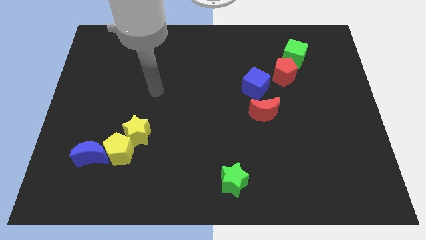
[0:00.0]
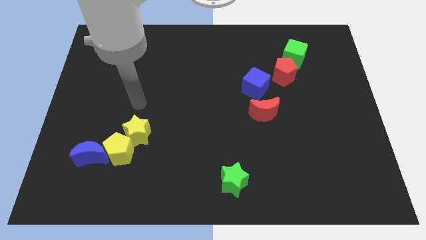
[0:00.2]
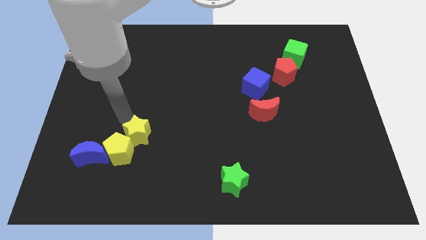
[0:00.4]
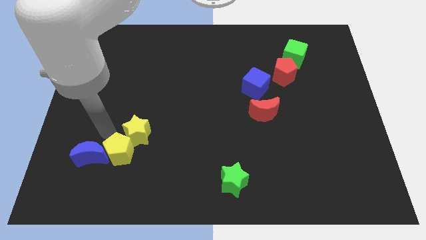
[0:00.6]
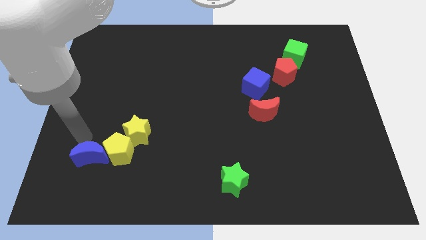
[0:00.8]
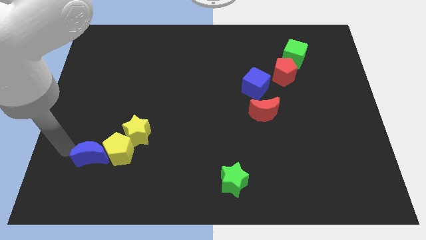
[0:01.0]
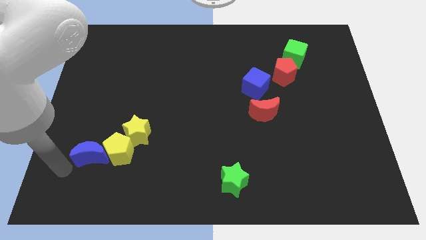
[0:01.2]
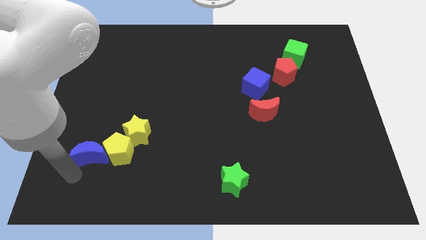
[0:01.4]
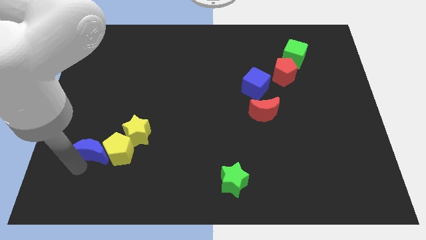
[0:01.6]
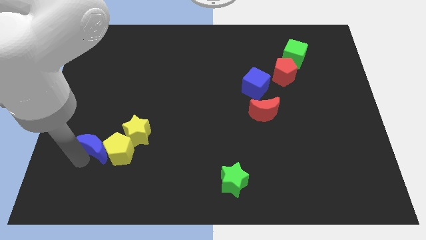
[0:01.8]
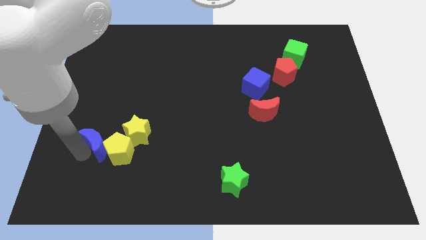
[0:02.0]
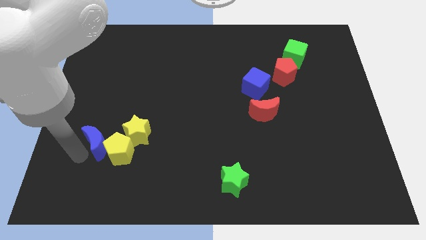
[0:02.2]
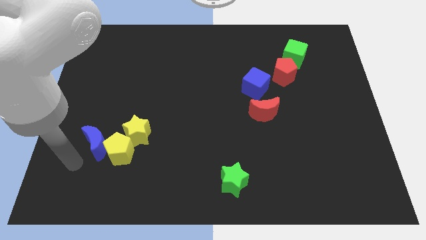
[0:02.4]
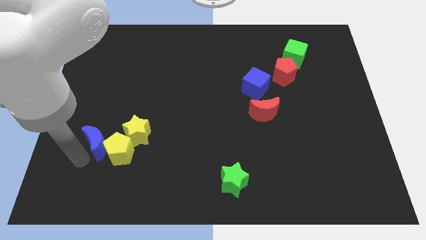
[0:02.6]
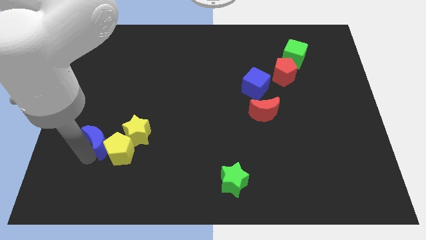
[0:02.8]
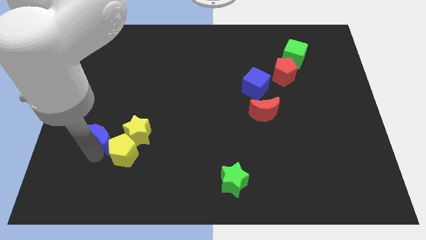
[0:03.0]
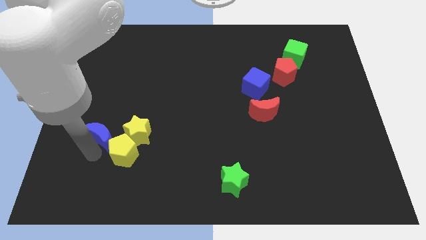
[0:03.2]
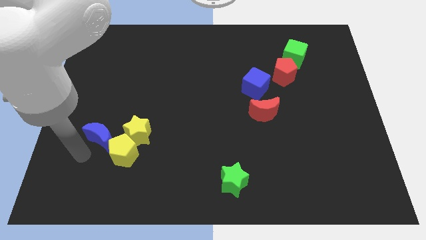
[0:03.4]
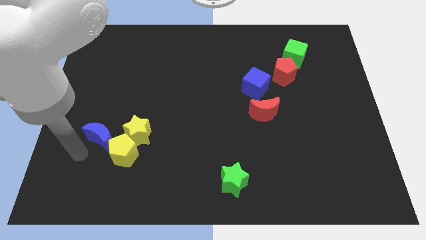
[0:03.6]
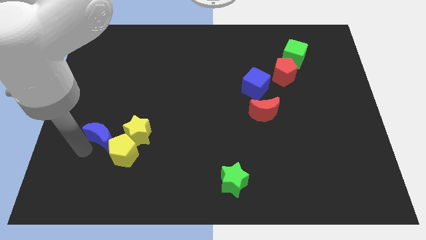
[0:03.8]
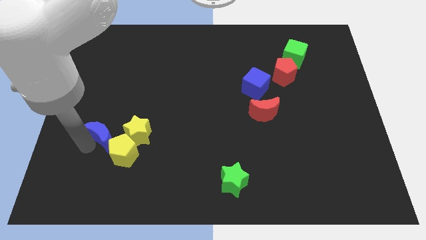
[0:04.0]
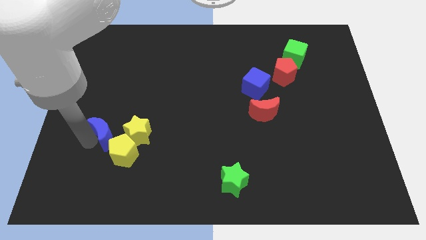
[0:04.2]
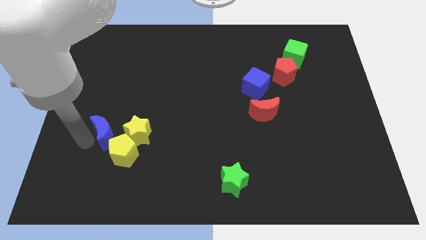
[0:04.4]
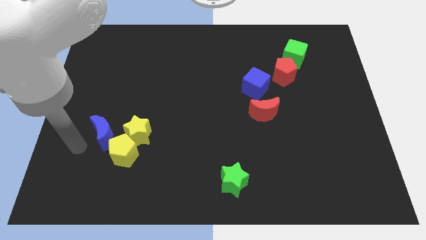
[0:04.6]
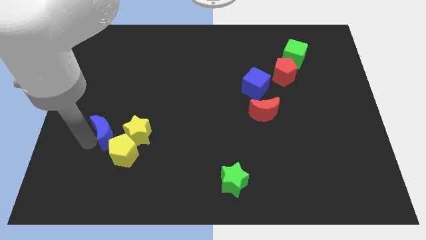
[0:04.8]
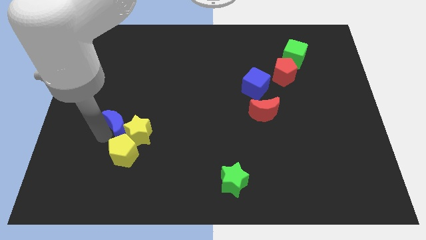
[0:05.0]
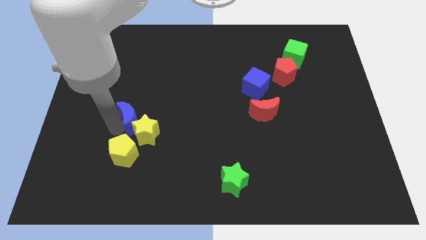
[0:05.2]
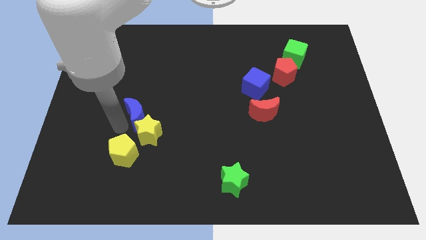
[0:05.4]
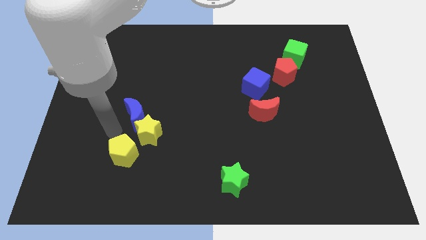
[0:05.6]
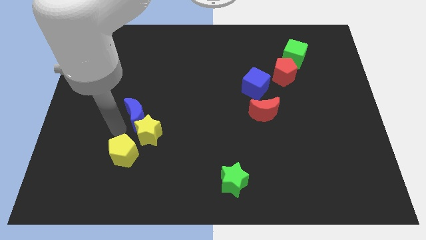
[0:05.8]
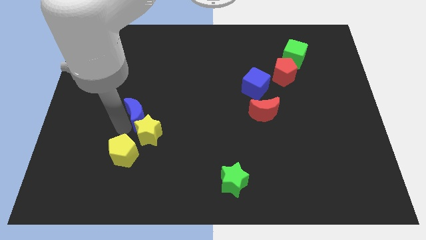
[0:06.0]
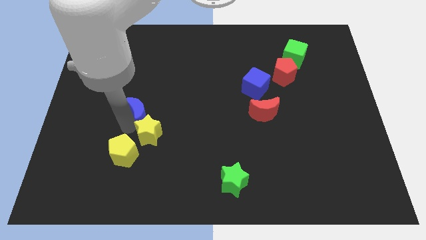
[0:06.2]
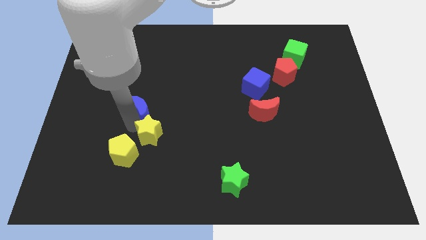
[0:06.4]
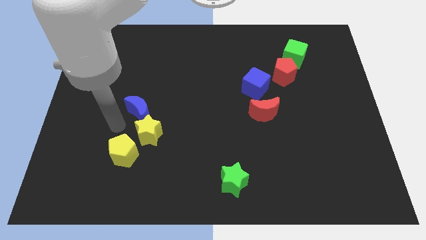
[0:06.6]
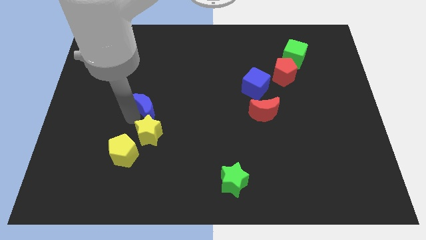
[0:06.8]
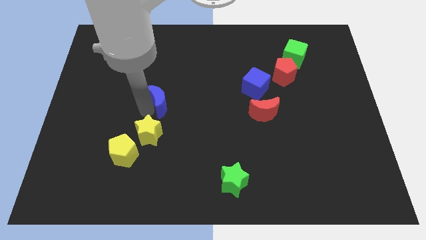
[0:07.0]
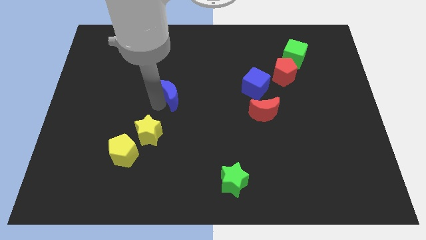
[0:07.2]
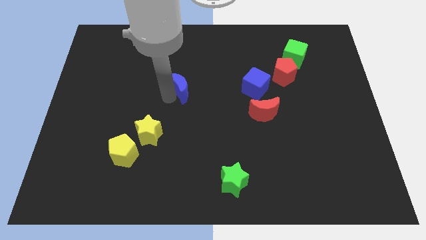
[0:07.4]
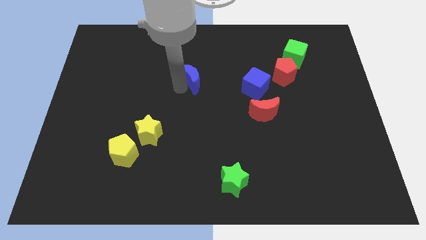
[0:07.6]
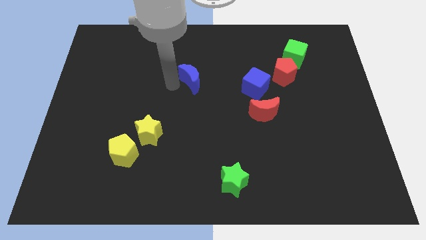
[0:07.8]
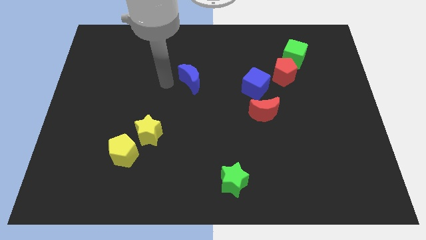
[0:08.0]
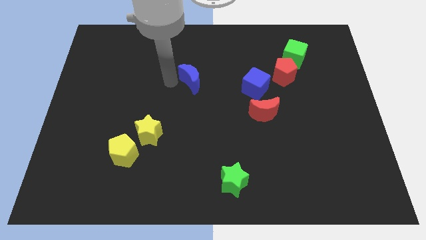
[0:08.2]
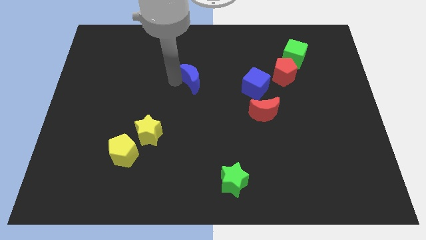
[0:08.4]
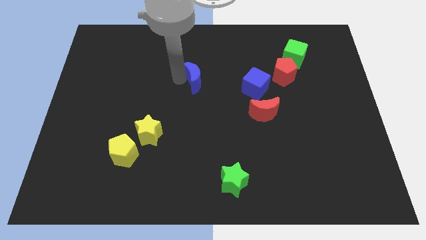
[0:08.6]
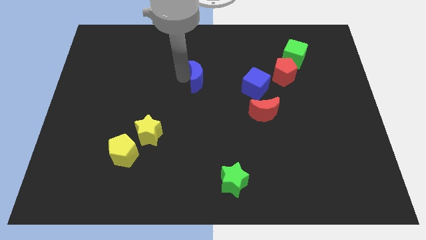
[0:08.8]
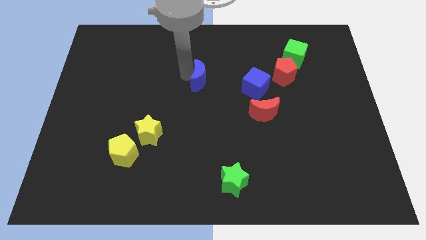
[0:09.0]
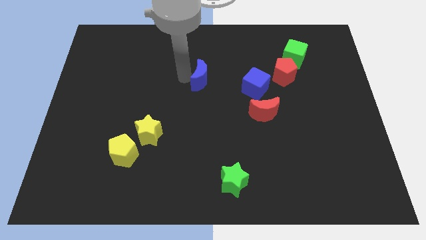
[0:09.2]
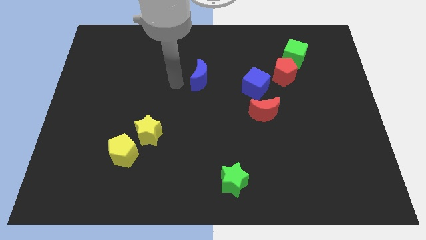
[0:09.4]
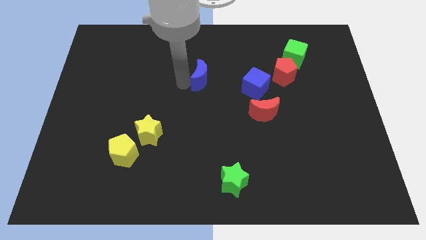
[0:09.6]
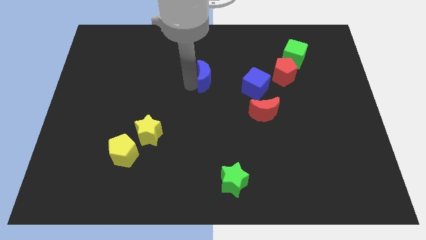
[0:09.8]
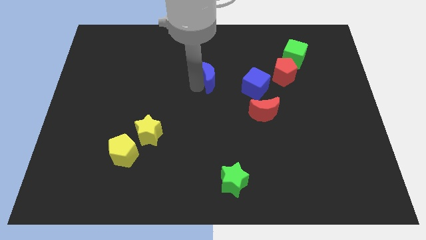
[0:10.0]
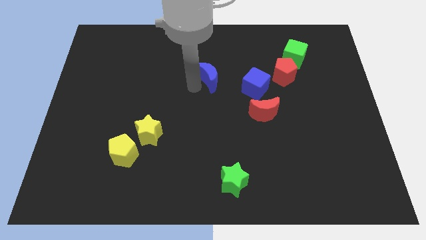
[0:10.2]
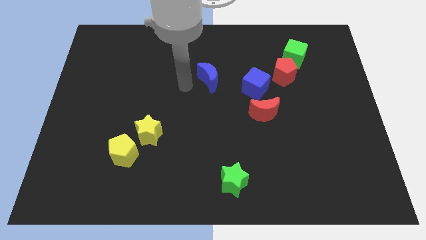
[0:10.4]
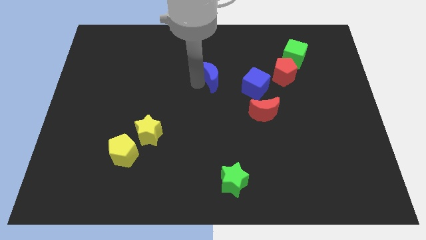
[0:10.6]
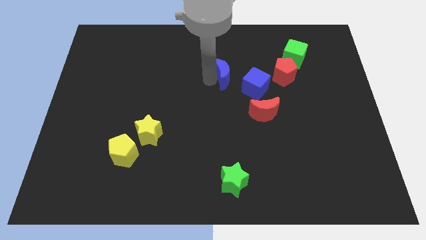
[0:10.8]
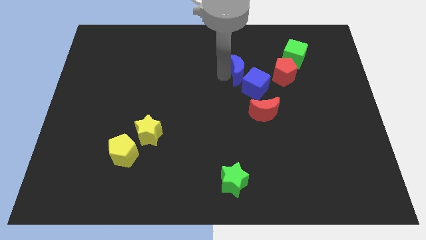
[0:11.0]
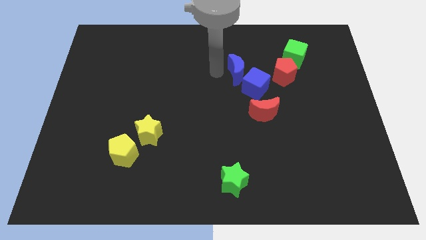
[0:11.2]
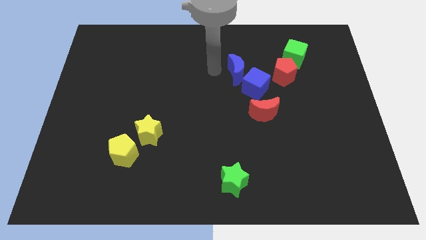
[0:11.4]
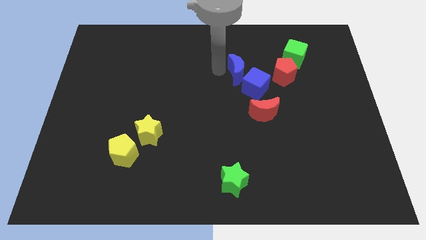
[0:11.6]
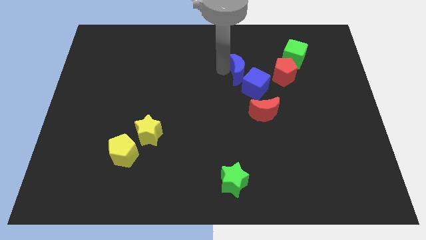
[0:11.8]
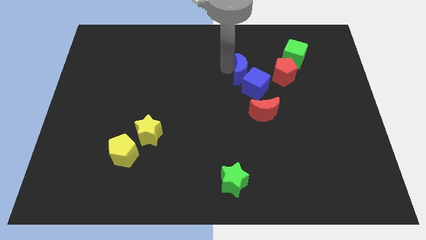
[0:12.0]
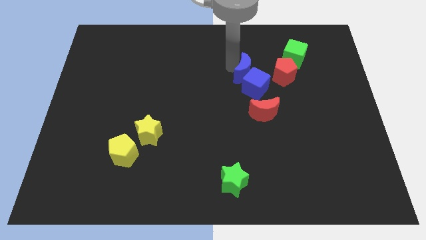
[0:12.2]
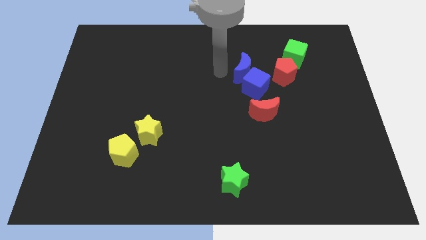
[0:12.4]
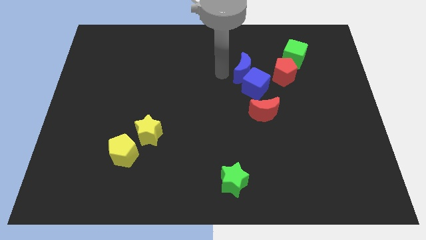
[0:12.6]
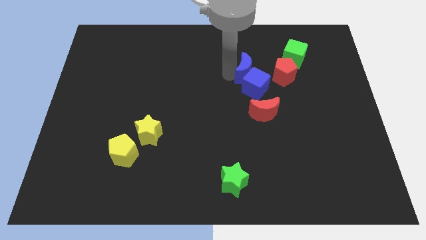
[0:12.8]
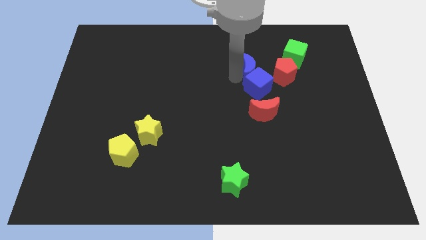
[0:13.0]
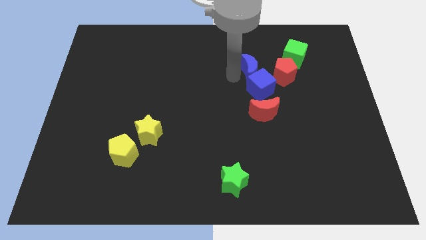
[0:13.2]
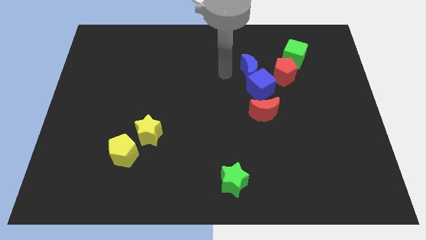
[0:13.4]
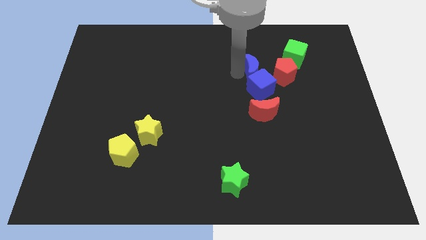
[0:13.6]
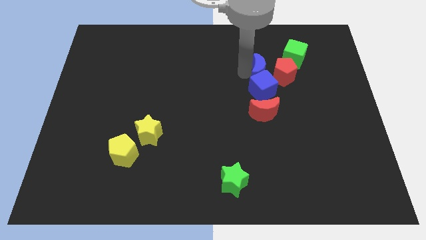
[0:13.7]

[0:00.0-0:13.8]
move the blue moon to the bottom left of the green cube
